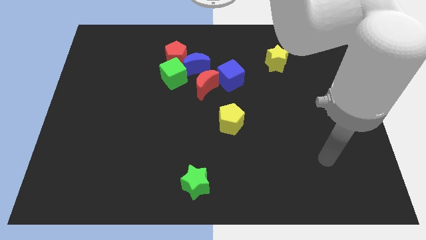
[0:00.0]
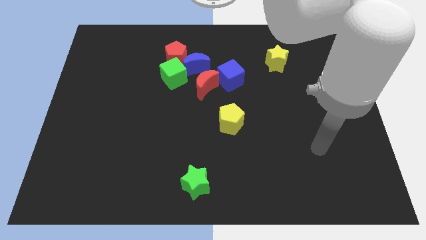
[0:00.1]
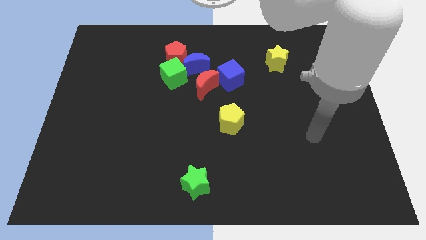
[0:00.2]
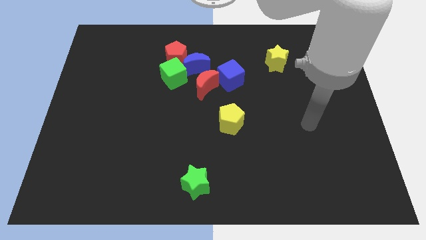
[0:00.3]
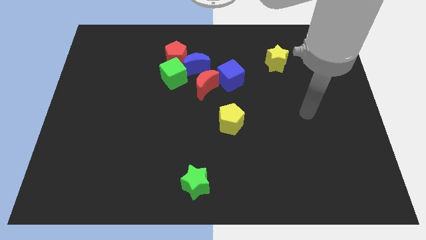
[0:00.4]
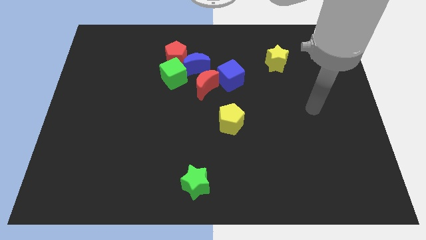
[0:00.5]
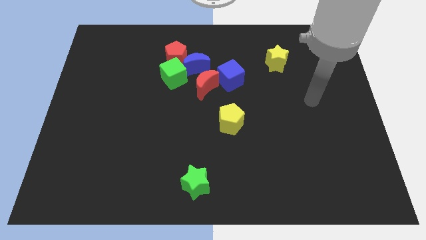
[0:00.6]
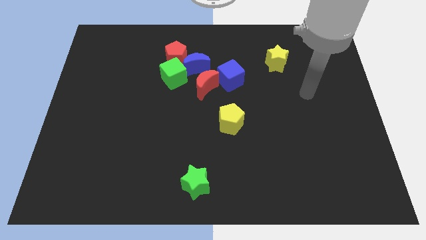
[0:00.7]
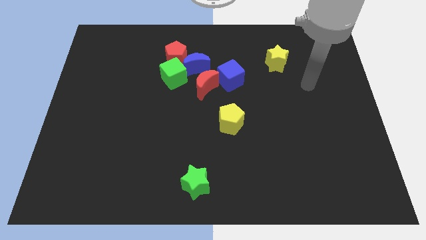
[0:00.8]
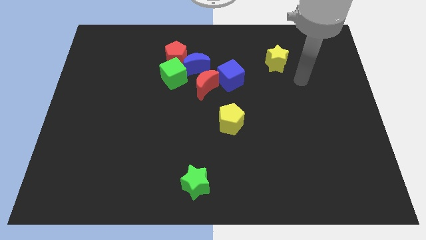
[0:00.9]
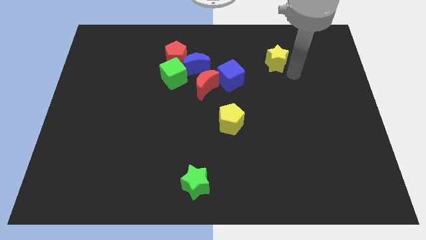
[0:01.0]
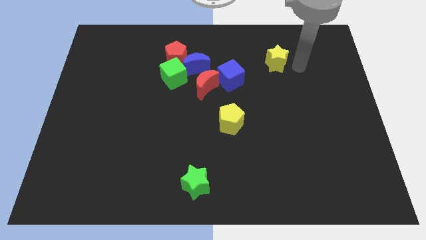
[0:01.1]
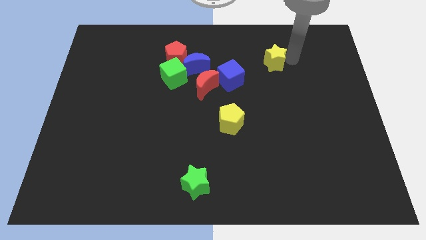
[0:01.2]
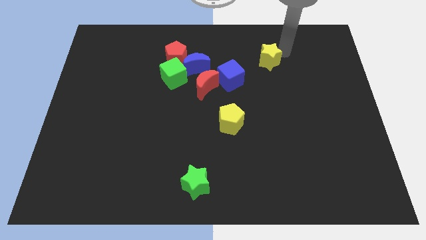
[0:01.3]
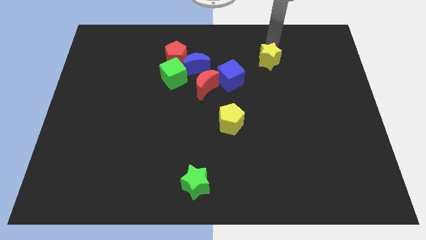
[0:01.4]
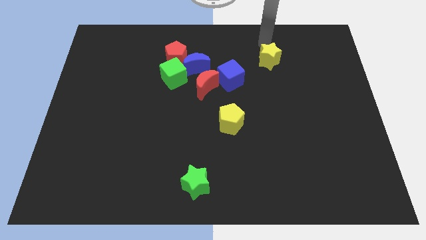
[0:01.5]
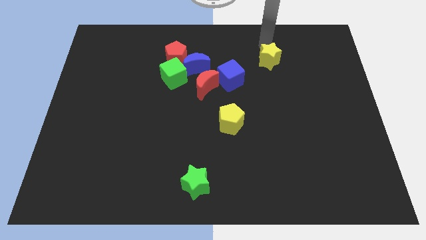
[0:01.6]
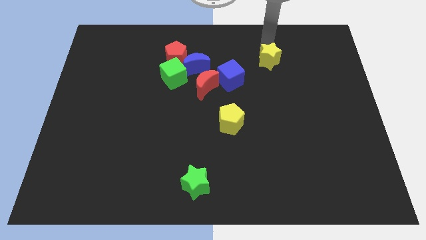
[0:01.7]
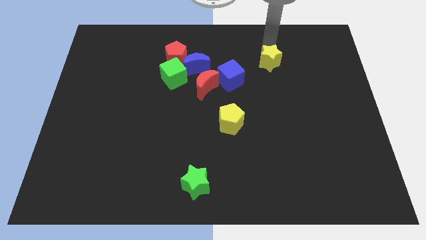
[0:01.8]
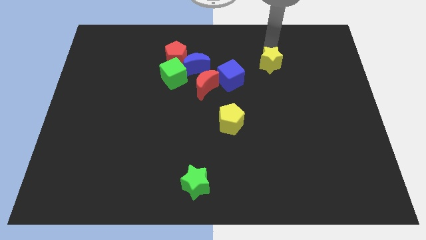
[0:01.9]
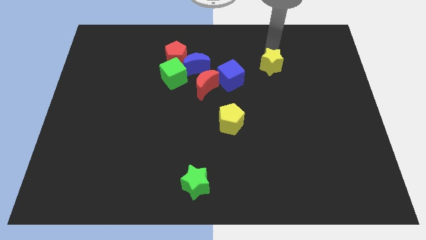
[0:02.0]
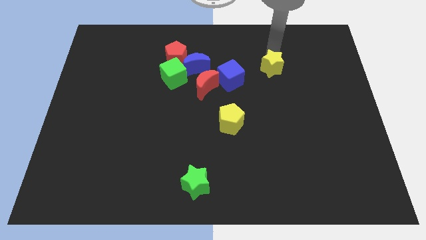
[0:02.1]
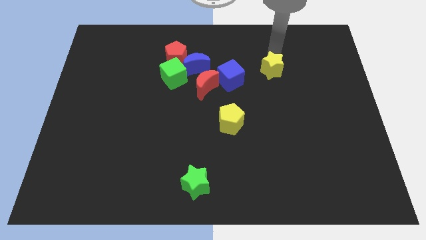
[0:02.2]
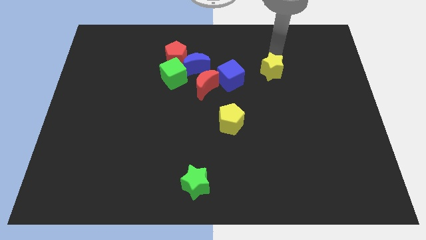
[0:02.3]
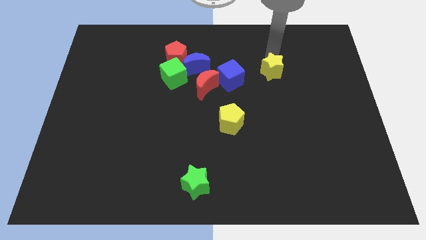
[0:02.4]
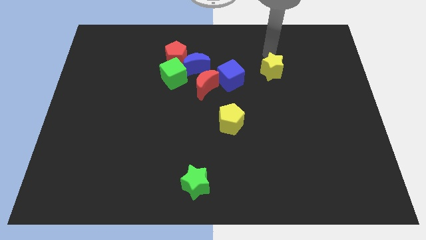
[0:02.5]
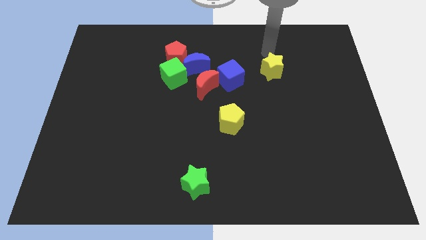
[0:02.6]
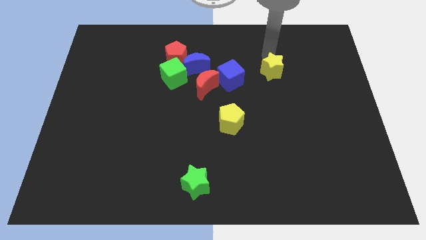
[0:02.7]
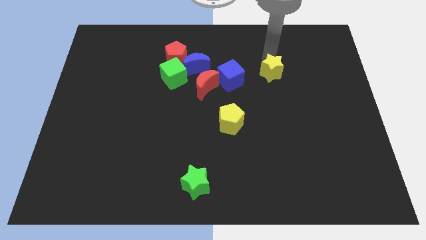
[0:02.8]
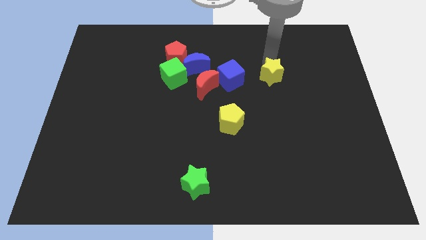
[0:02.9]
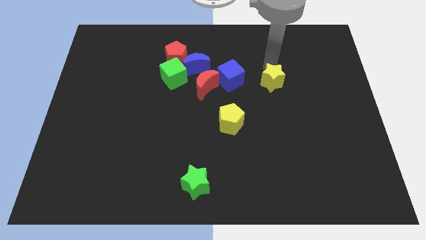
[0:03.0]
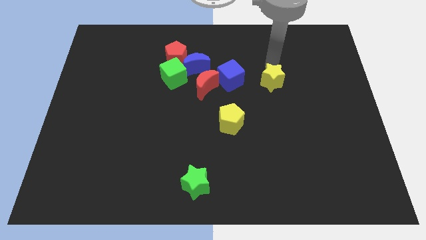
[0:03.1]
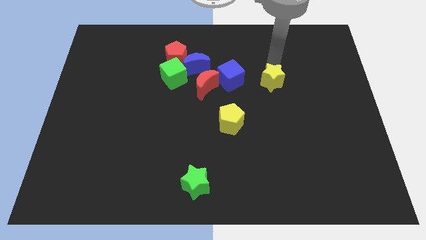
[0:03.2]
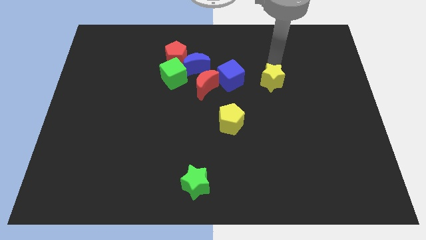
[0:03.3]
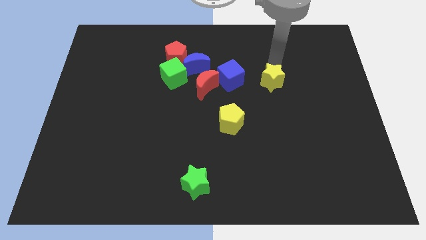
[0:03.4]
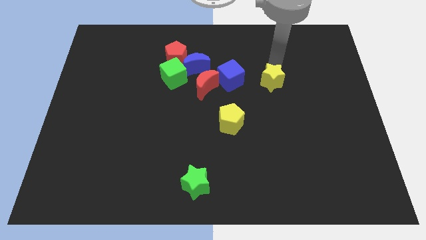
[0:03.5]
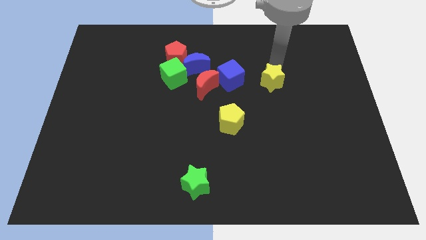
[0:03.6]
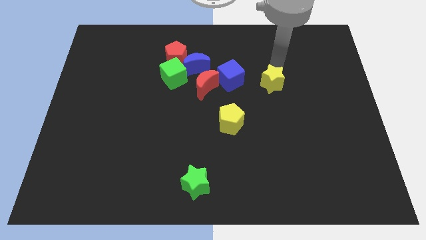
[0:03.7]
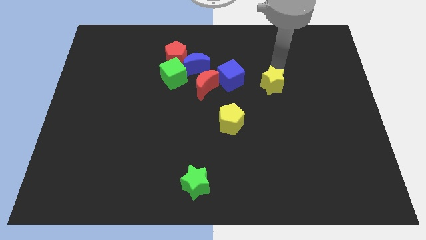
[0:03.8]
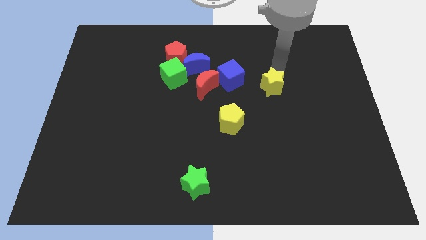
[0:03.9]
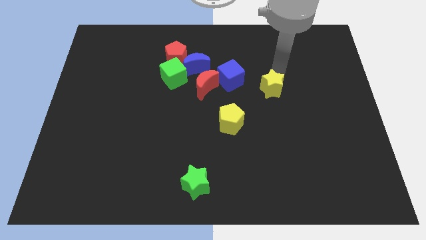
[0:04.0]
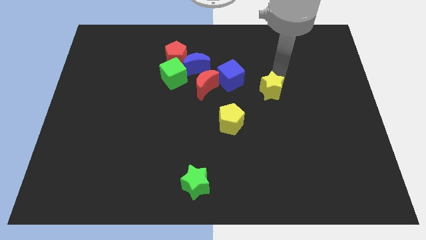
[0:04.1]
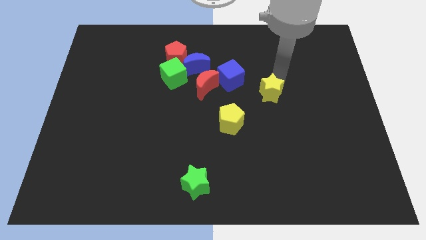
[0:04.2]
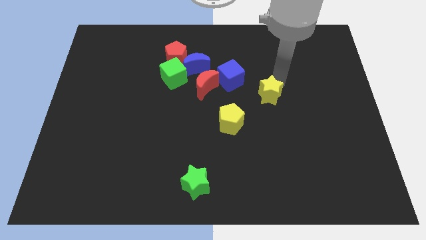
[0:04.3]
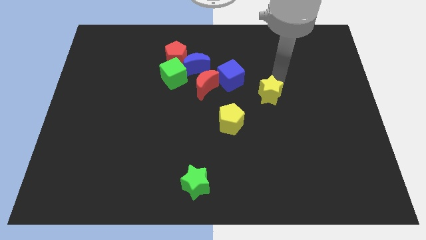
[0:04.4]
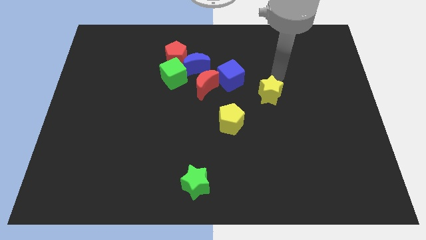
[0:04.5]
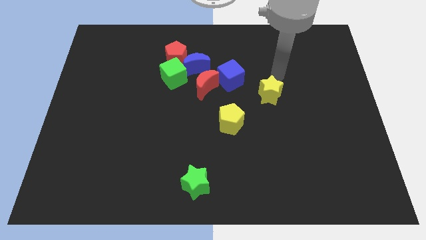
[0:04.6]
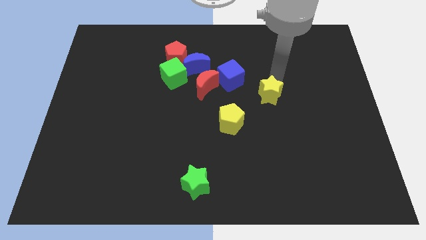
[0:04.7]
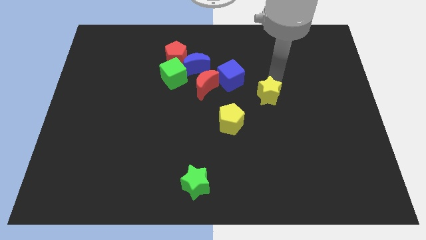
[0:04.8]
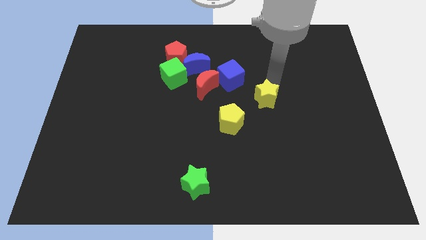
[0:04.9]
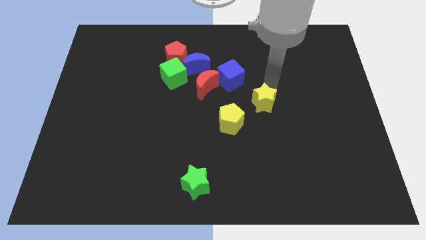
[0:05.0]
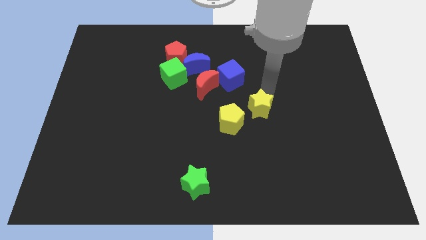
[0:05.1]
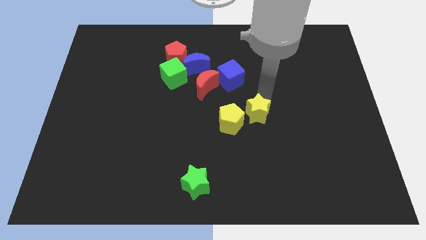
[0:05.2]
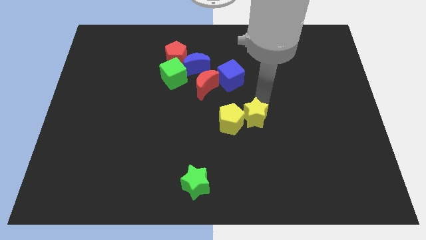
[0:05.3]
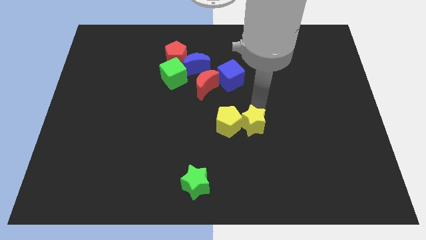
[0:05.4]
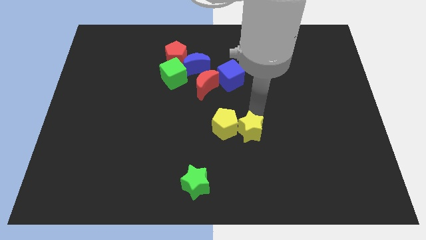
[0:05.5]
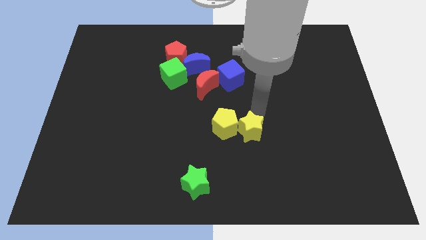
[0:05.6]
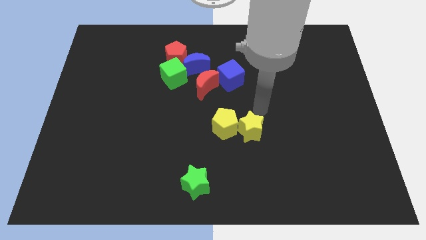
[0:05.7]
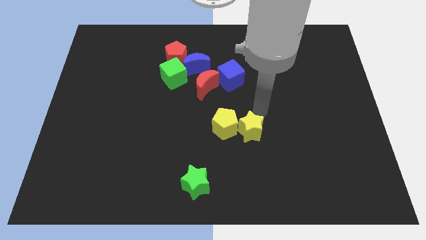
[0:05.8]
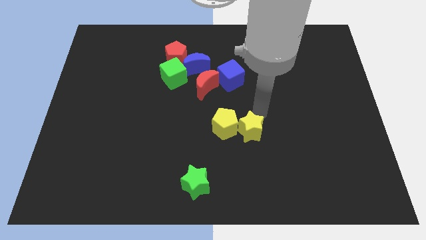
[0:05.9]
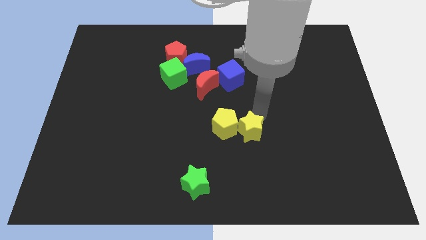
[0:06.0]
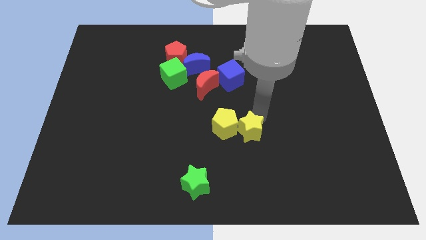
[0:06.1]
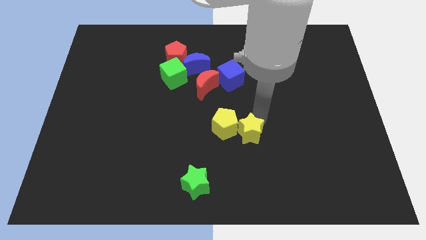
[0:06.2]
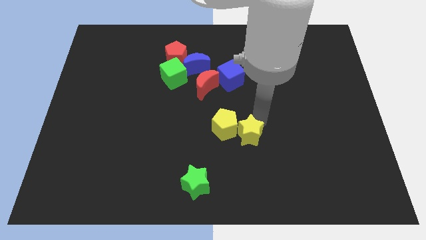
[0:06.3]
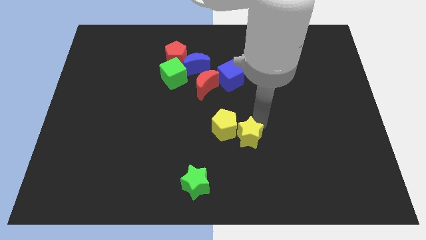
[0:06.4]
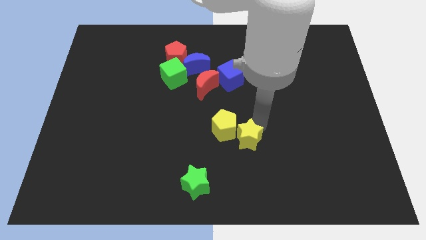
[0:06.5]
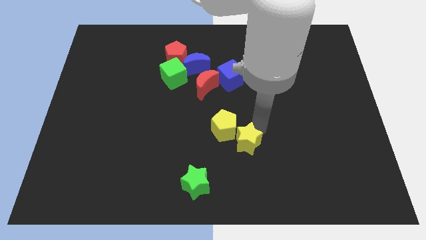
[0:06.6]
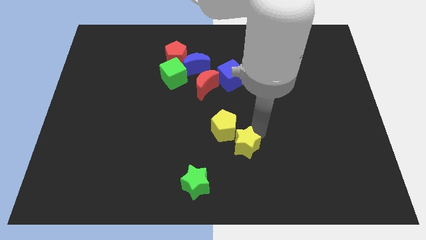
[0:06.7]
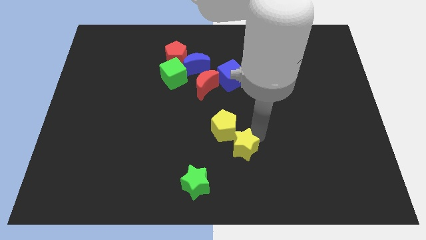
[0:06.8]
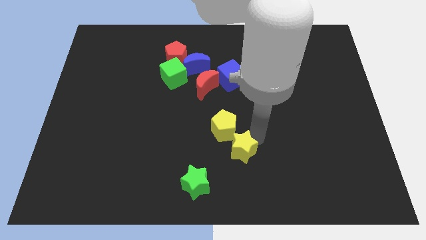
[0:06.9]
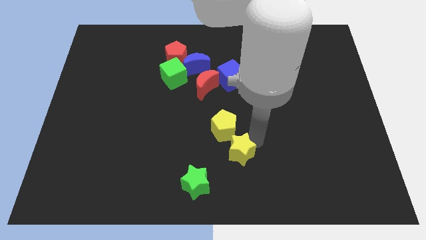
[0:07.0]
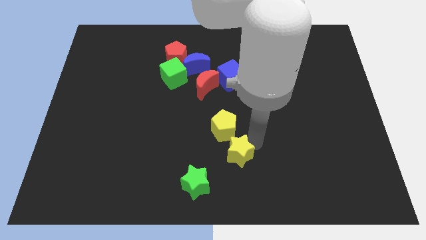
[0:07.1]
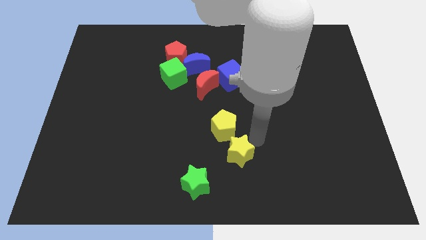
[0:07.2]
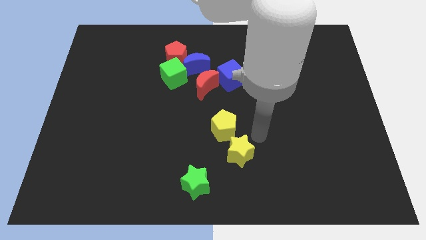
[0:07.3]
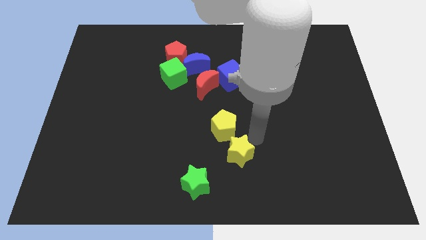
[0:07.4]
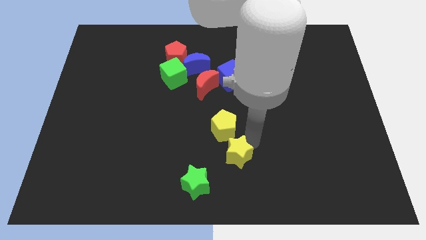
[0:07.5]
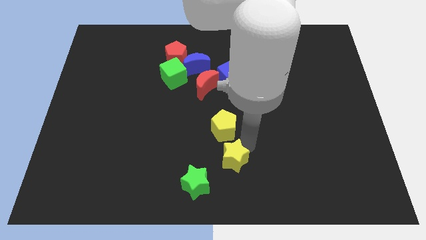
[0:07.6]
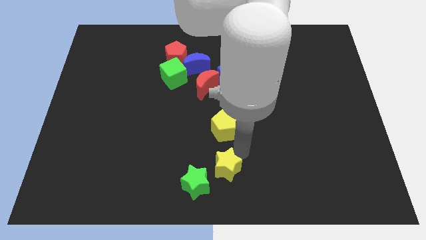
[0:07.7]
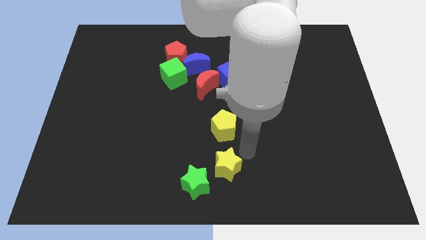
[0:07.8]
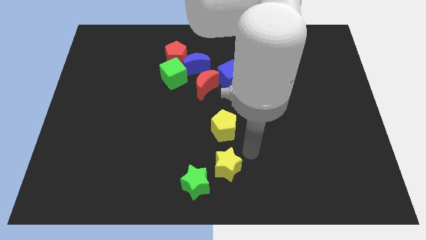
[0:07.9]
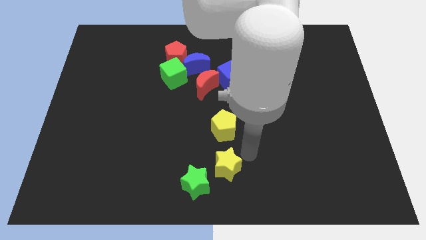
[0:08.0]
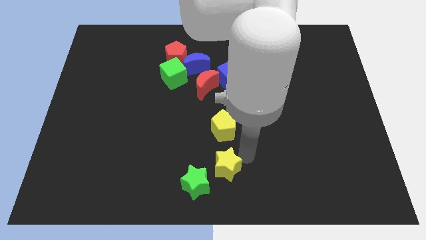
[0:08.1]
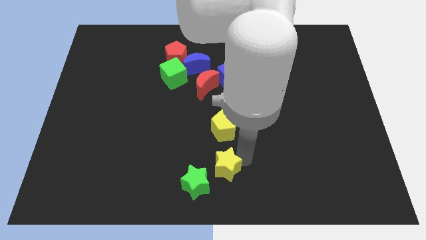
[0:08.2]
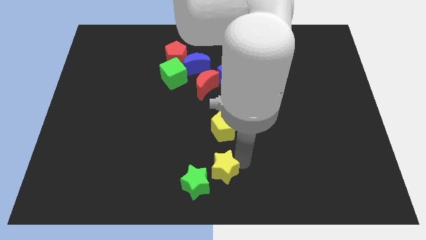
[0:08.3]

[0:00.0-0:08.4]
move the yellow star close to the green star

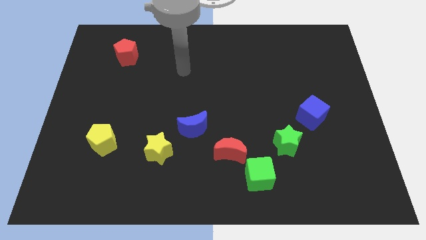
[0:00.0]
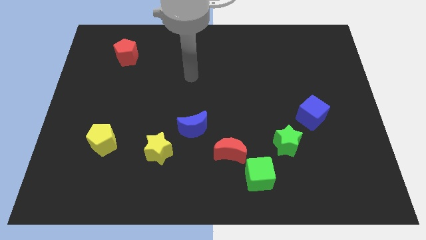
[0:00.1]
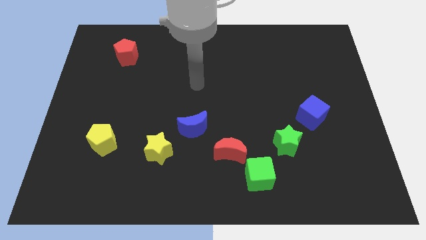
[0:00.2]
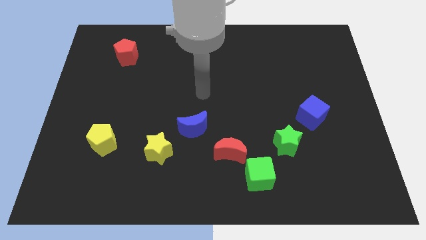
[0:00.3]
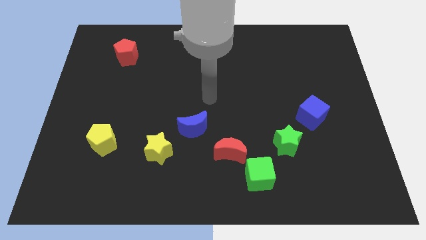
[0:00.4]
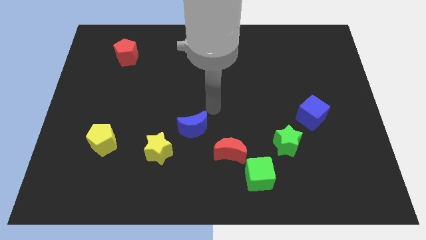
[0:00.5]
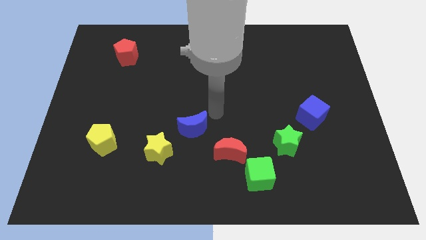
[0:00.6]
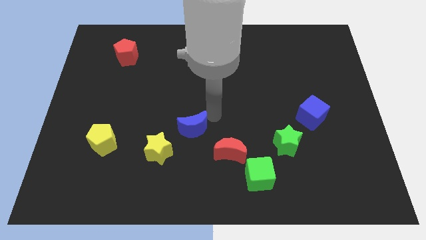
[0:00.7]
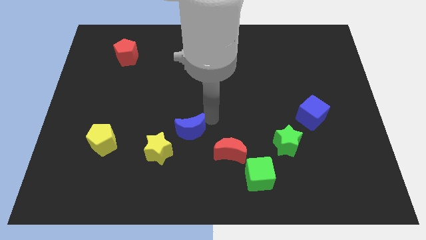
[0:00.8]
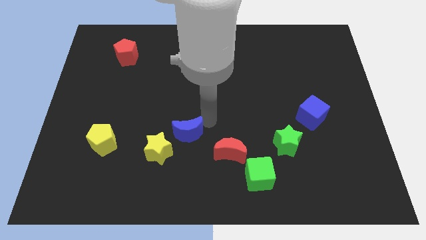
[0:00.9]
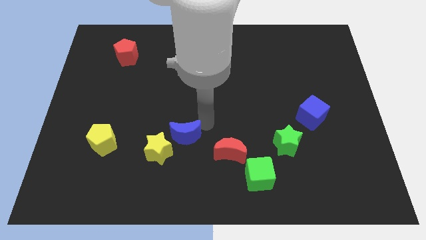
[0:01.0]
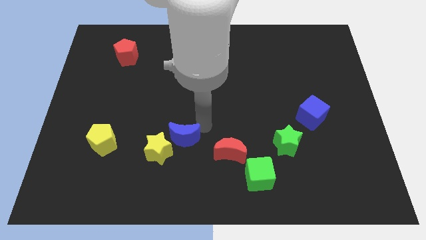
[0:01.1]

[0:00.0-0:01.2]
push the blue moon close to the yellow star
